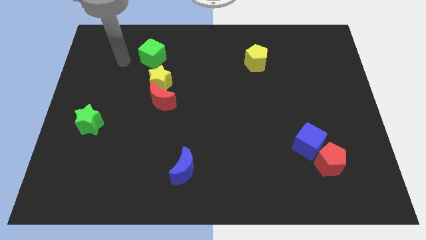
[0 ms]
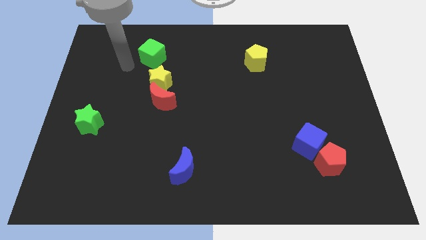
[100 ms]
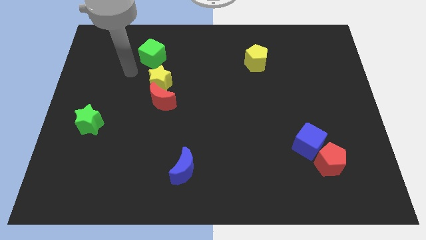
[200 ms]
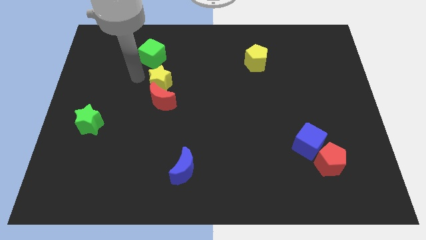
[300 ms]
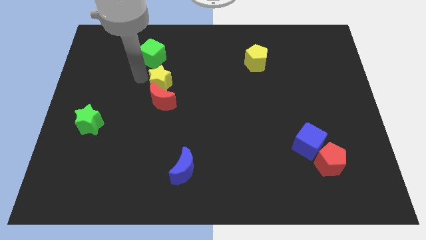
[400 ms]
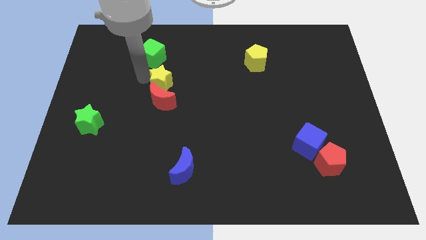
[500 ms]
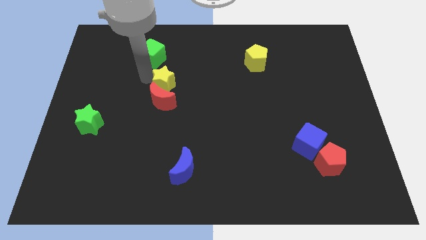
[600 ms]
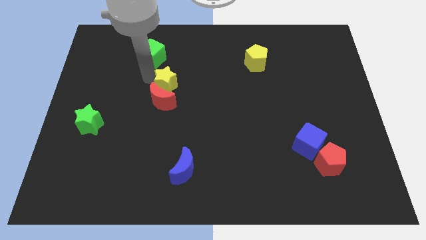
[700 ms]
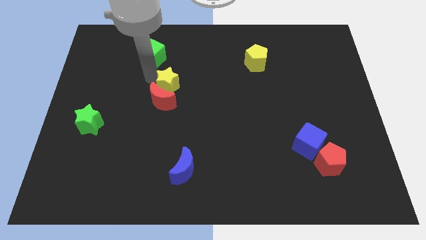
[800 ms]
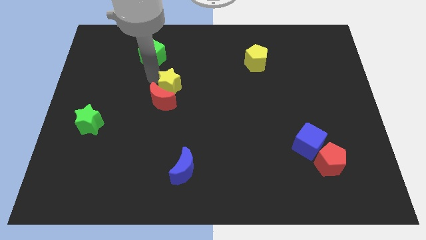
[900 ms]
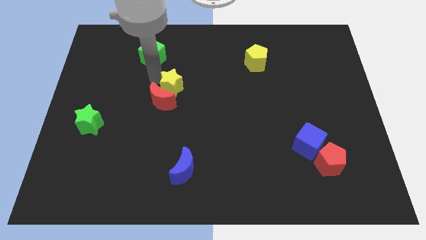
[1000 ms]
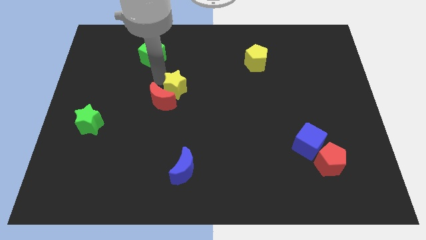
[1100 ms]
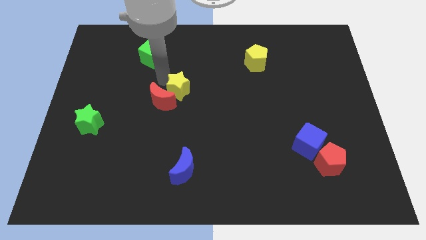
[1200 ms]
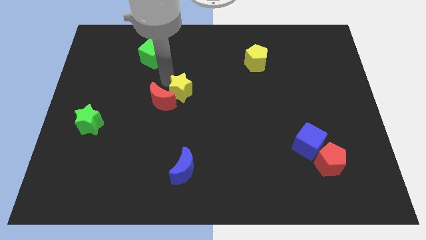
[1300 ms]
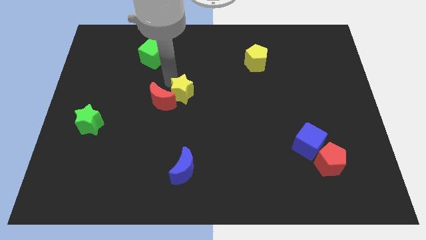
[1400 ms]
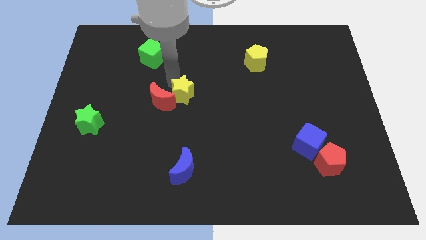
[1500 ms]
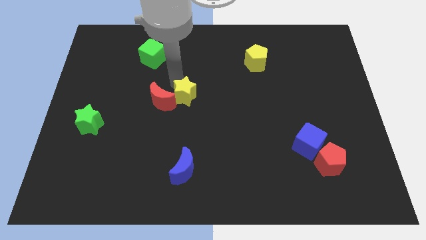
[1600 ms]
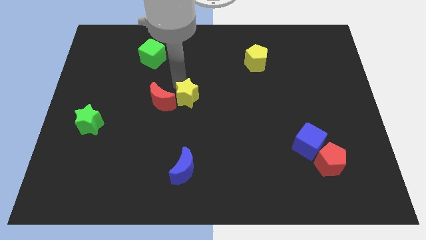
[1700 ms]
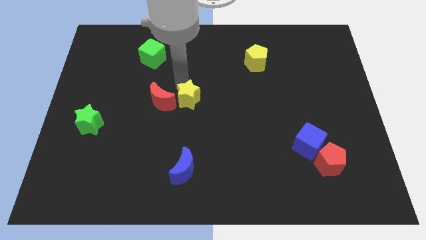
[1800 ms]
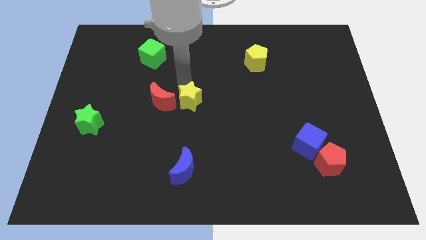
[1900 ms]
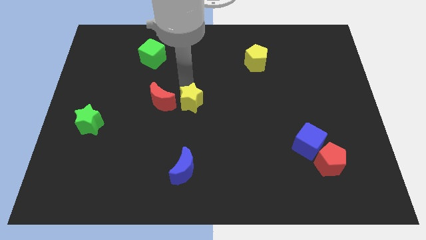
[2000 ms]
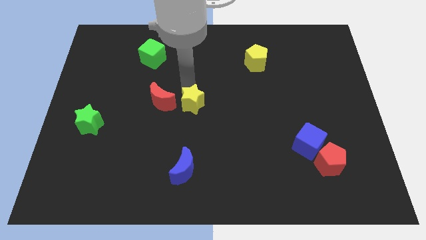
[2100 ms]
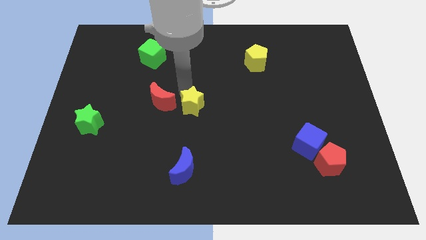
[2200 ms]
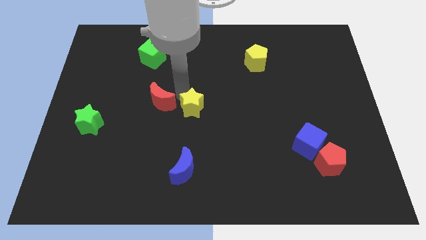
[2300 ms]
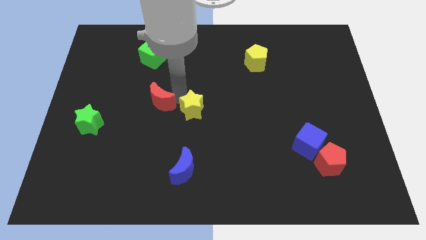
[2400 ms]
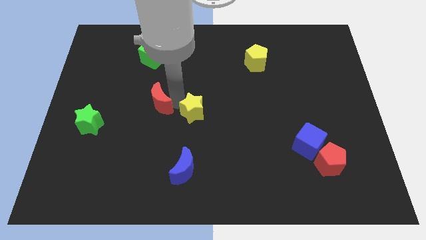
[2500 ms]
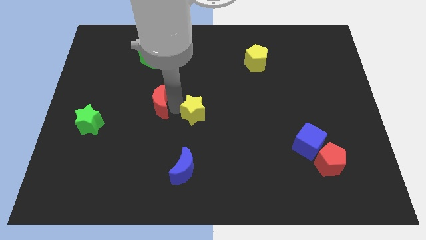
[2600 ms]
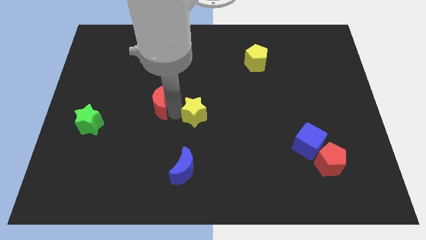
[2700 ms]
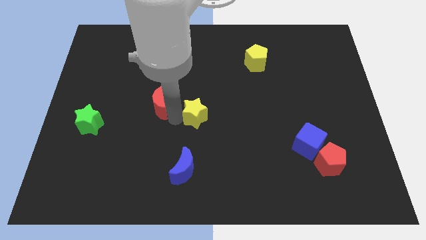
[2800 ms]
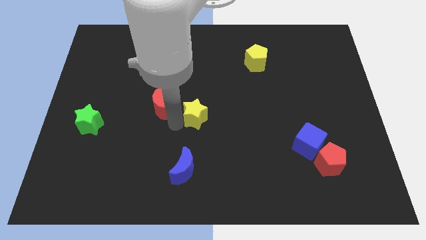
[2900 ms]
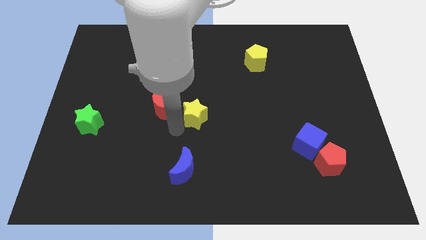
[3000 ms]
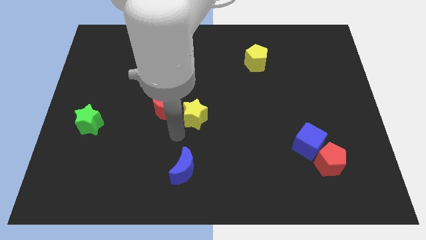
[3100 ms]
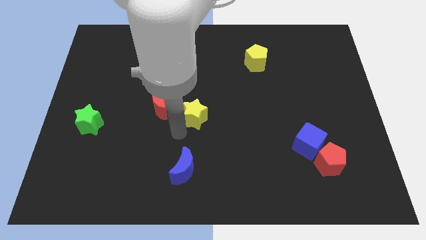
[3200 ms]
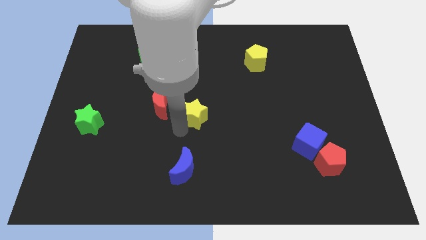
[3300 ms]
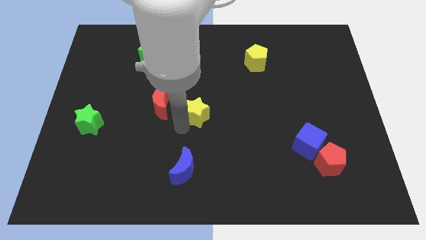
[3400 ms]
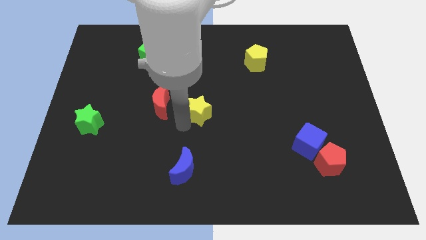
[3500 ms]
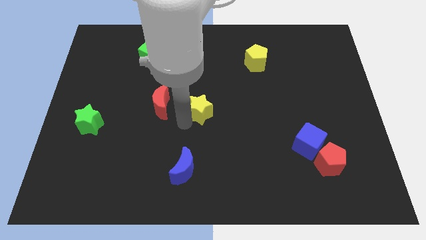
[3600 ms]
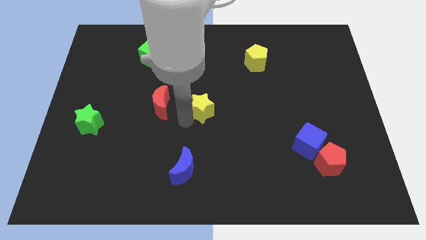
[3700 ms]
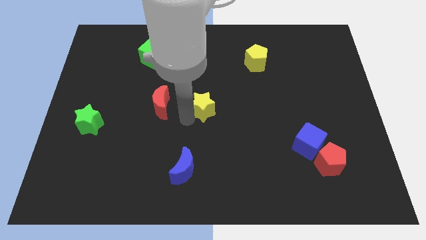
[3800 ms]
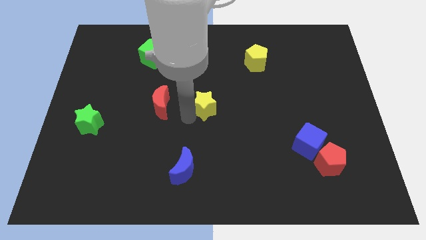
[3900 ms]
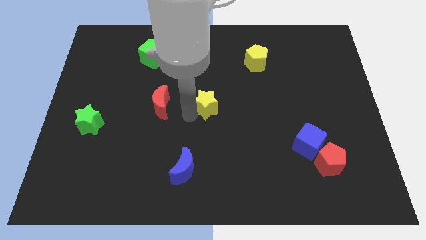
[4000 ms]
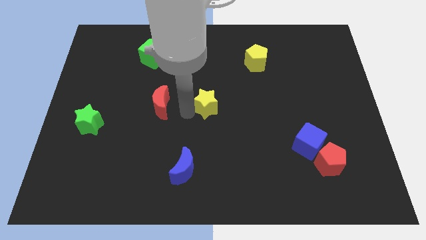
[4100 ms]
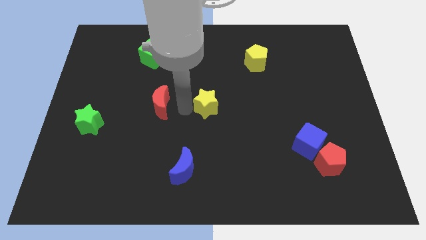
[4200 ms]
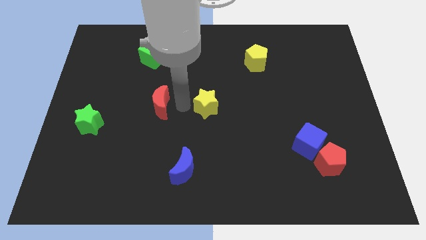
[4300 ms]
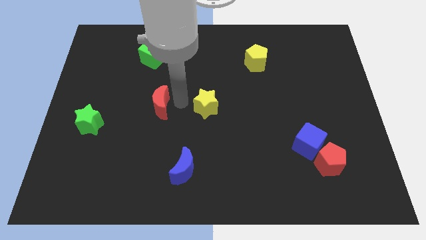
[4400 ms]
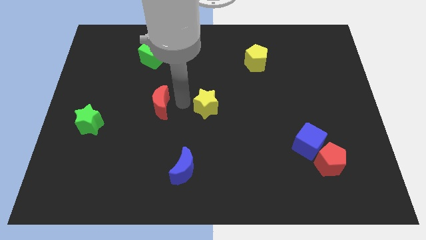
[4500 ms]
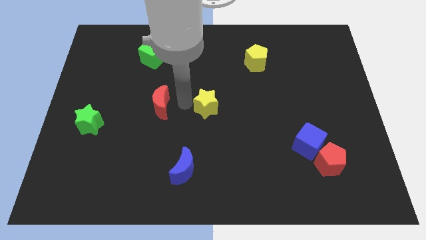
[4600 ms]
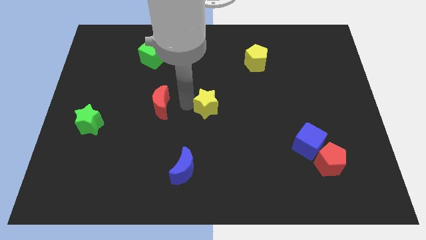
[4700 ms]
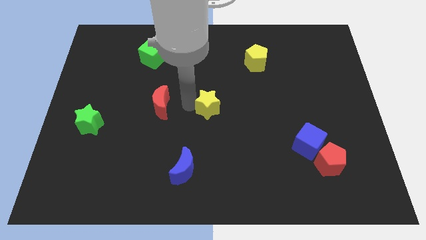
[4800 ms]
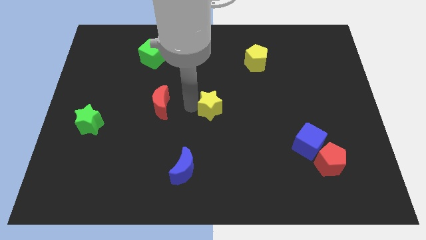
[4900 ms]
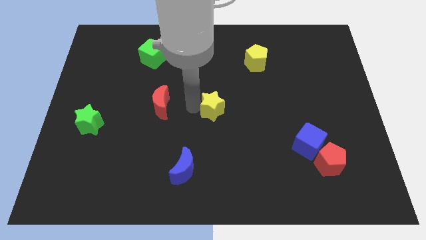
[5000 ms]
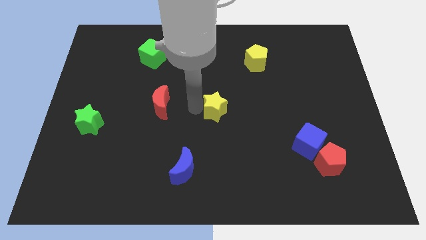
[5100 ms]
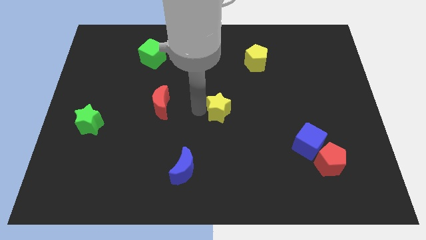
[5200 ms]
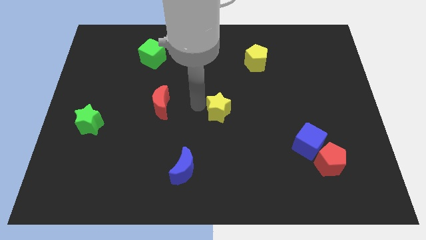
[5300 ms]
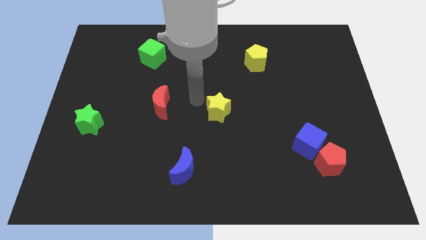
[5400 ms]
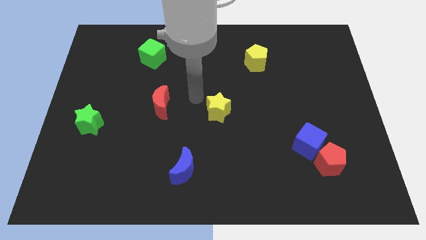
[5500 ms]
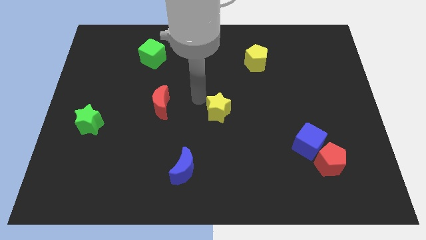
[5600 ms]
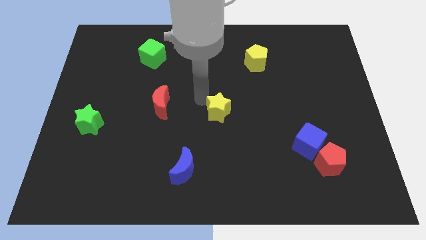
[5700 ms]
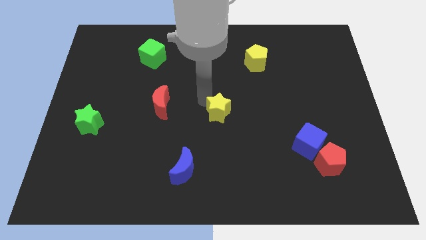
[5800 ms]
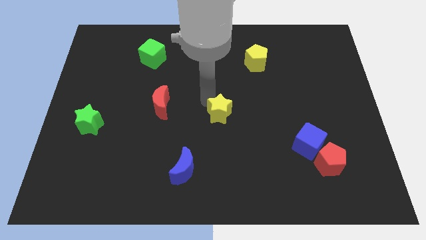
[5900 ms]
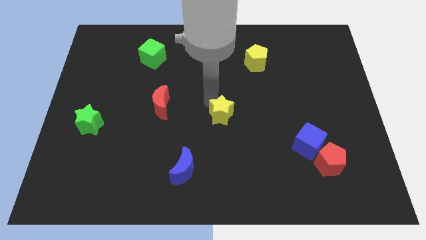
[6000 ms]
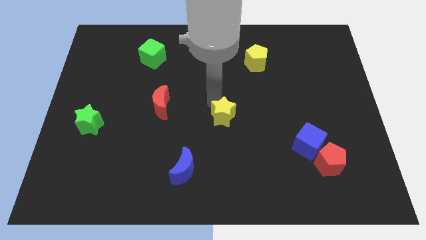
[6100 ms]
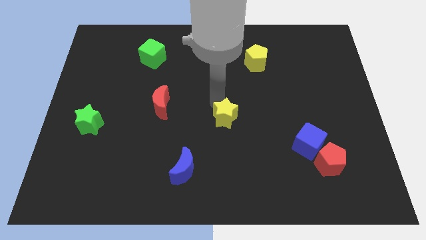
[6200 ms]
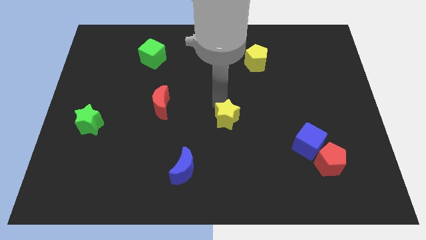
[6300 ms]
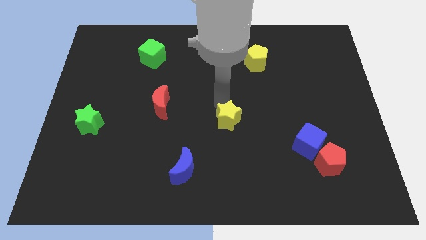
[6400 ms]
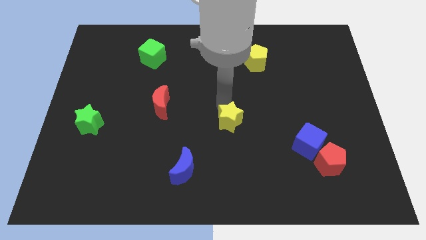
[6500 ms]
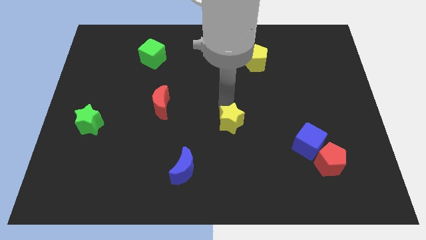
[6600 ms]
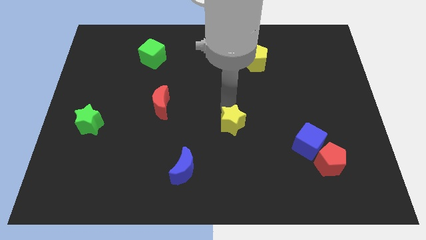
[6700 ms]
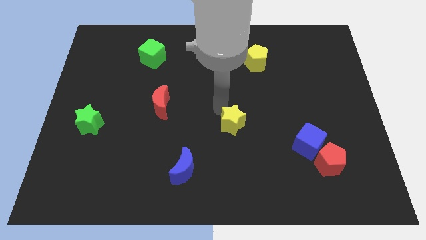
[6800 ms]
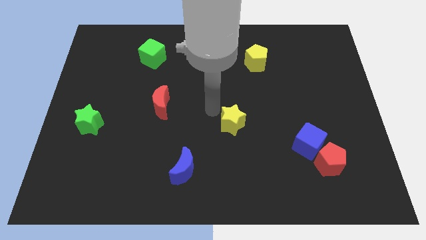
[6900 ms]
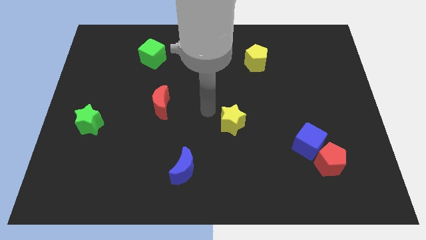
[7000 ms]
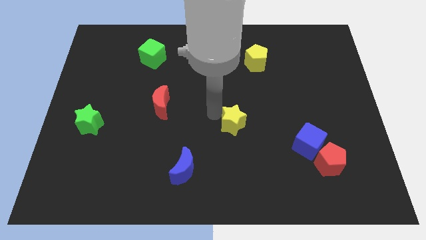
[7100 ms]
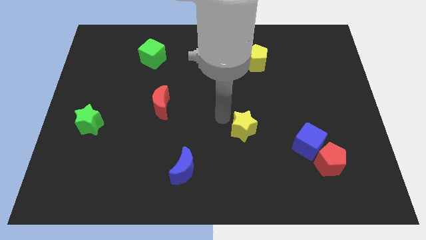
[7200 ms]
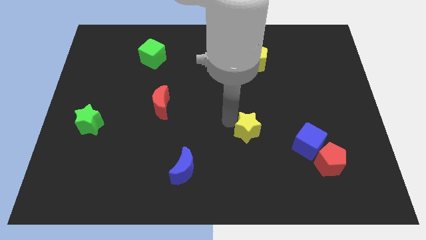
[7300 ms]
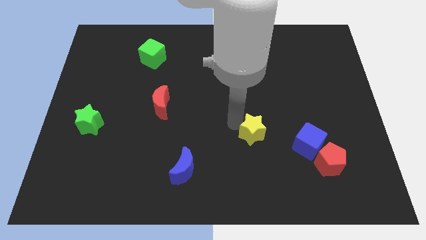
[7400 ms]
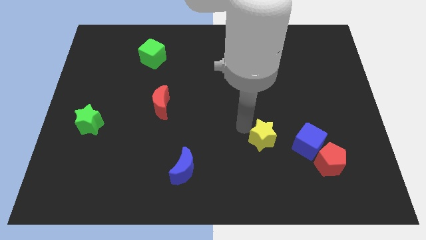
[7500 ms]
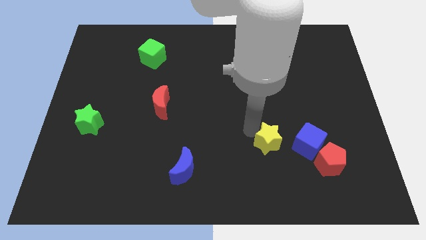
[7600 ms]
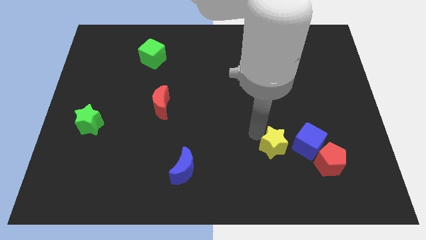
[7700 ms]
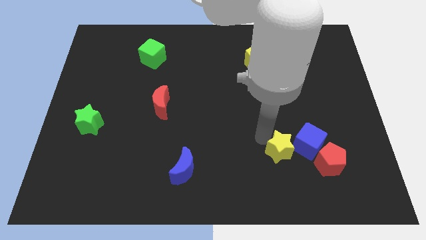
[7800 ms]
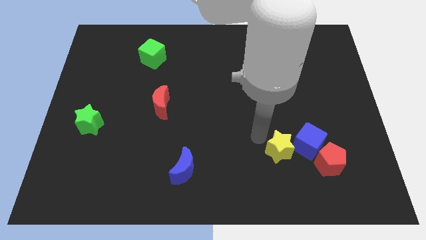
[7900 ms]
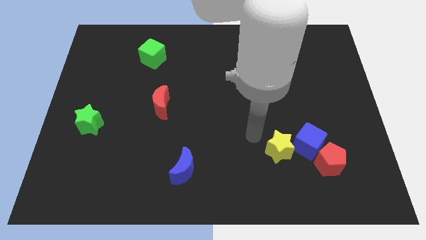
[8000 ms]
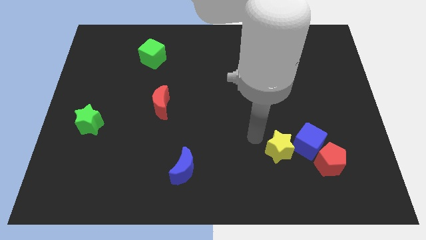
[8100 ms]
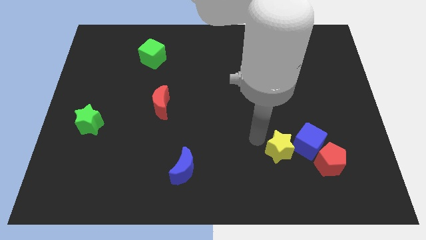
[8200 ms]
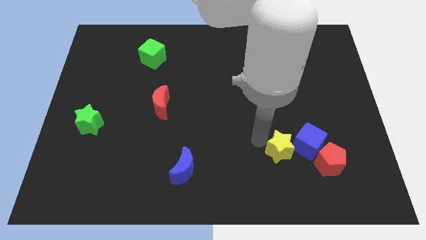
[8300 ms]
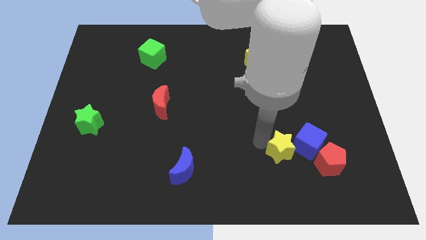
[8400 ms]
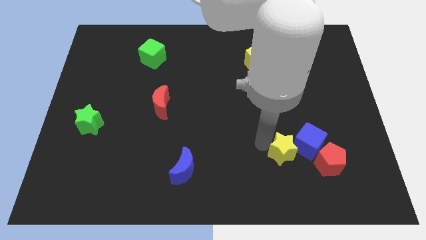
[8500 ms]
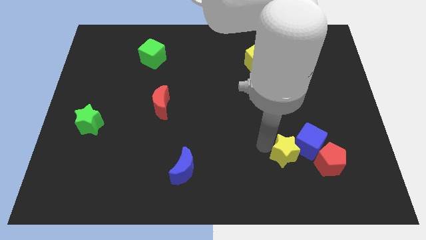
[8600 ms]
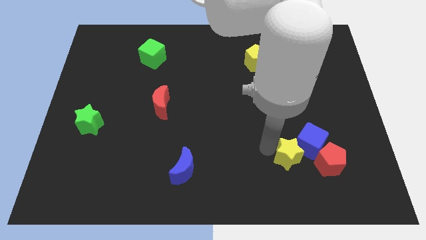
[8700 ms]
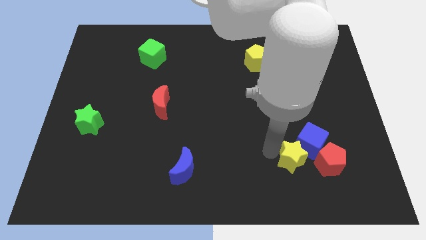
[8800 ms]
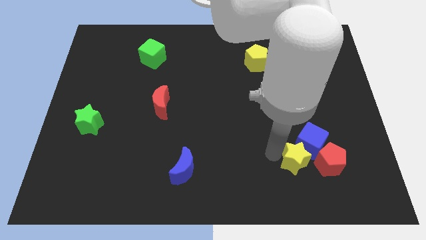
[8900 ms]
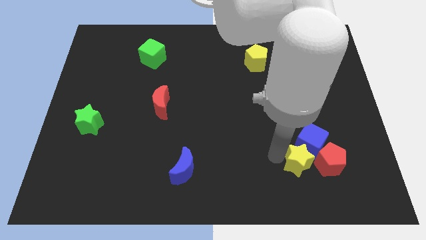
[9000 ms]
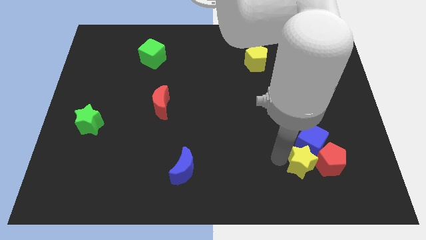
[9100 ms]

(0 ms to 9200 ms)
push the yellow star to the red pentagon
